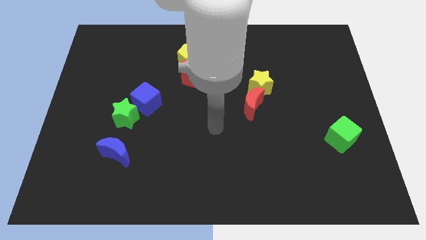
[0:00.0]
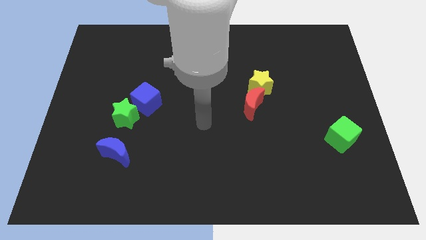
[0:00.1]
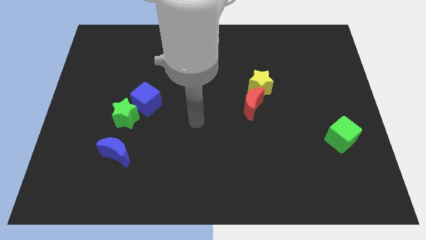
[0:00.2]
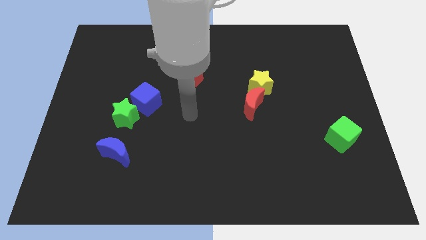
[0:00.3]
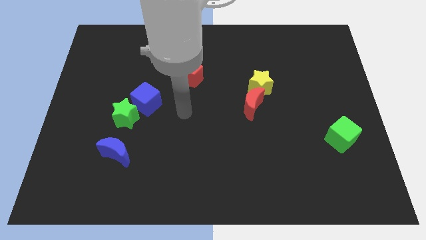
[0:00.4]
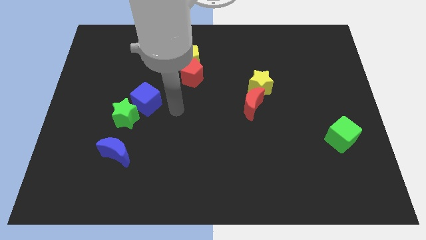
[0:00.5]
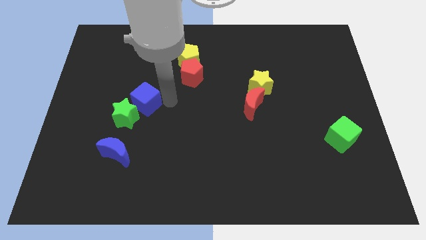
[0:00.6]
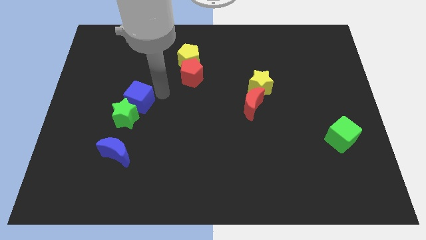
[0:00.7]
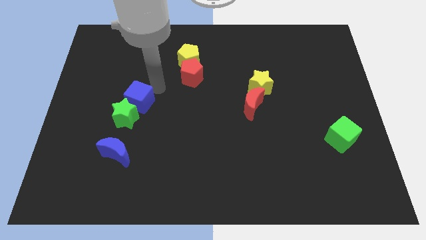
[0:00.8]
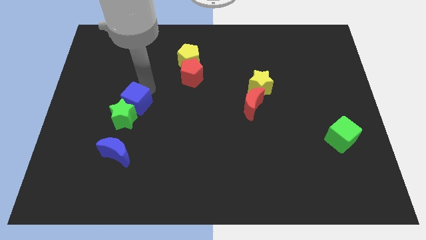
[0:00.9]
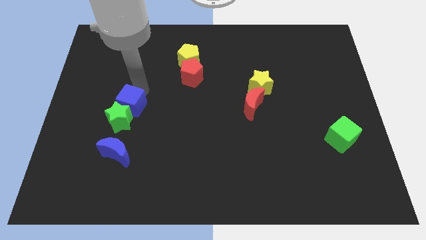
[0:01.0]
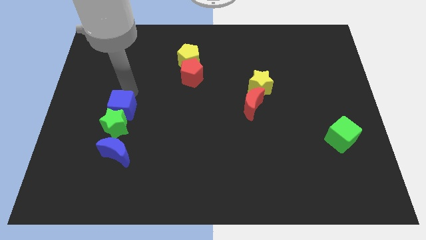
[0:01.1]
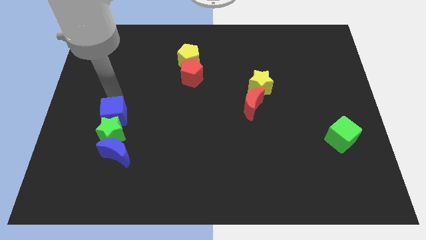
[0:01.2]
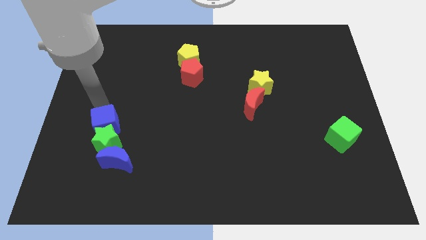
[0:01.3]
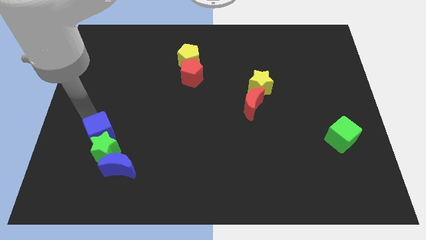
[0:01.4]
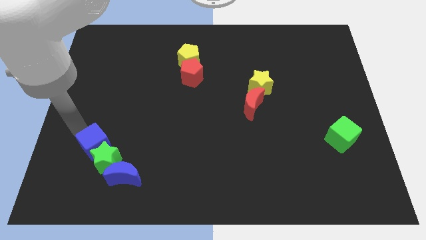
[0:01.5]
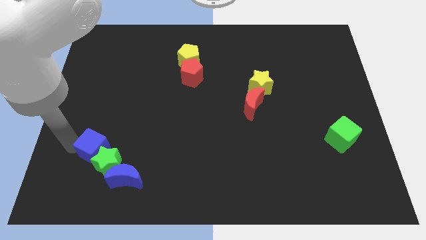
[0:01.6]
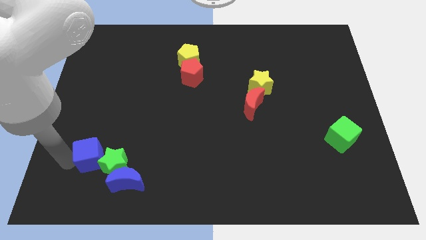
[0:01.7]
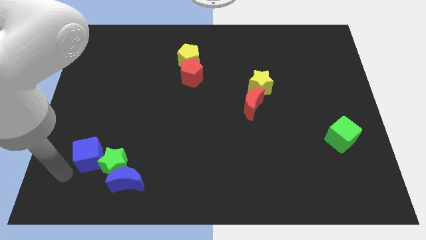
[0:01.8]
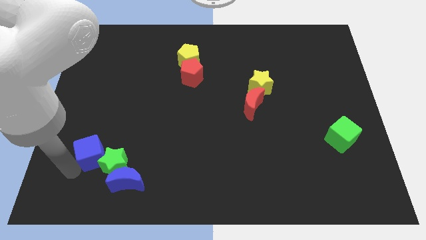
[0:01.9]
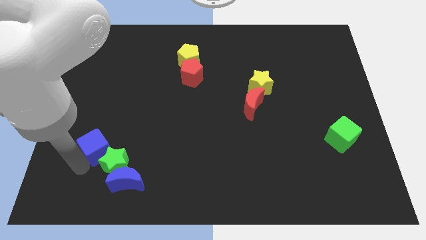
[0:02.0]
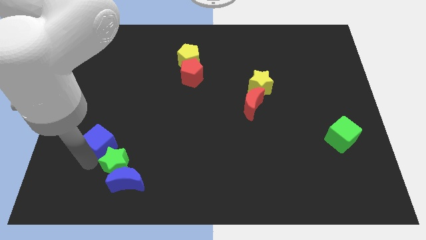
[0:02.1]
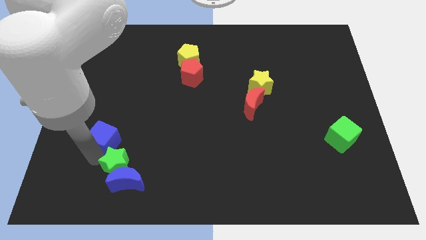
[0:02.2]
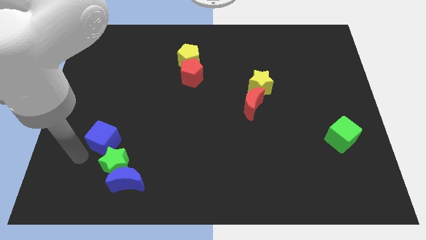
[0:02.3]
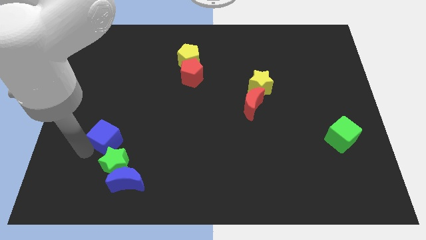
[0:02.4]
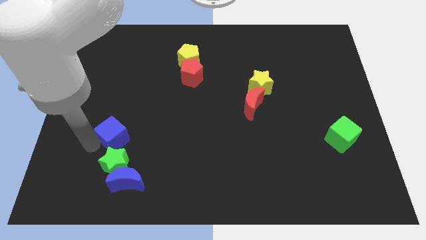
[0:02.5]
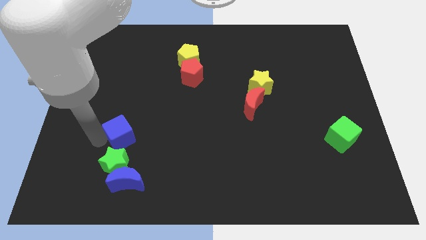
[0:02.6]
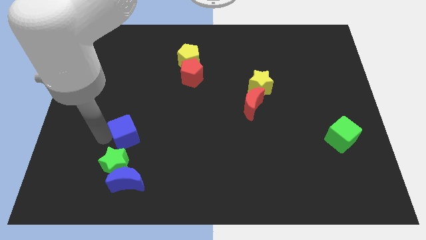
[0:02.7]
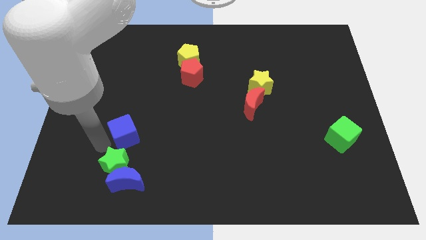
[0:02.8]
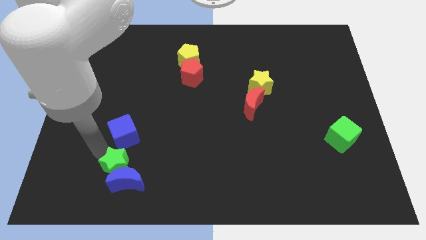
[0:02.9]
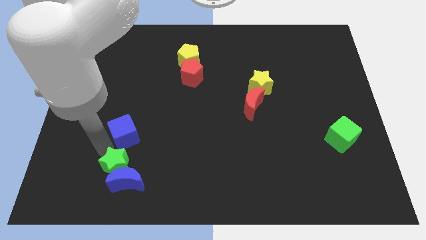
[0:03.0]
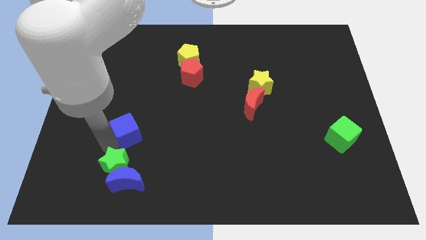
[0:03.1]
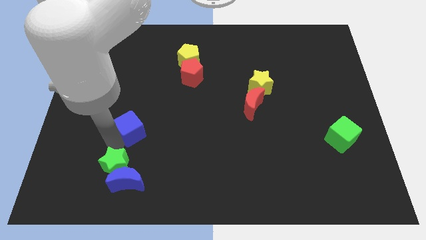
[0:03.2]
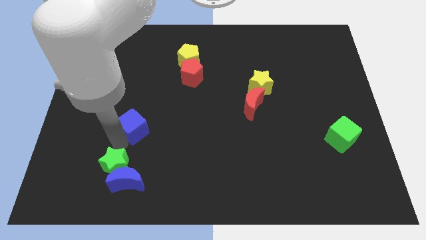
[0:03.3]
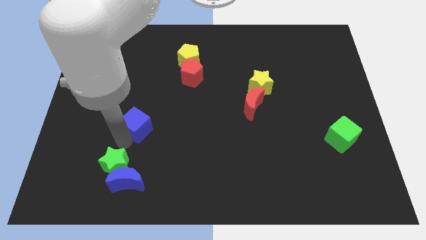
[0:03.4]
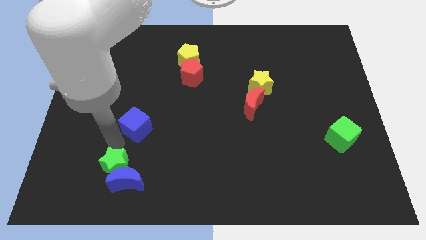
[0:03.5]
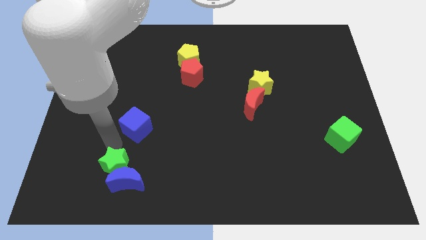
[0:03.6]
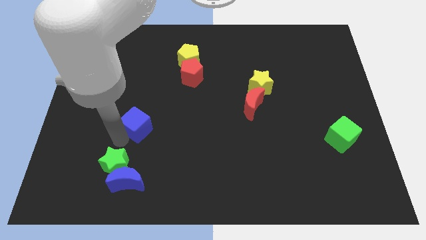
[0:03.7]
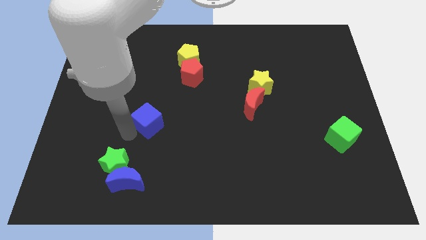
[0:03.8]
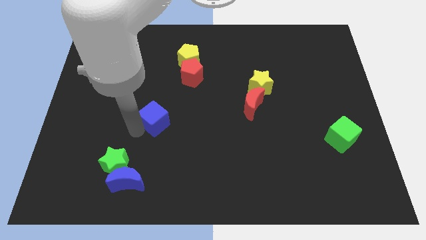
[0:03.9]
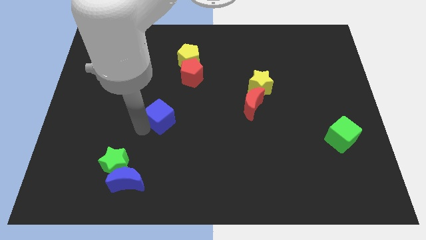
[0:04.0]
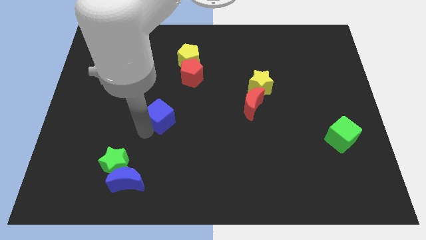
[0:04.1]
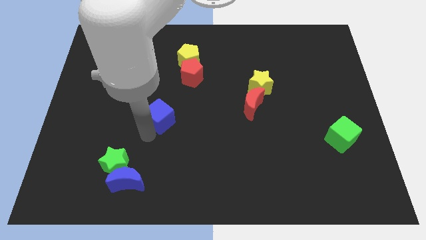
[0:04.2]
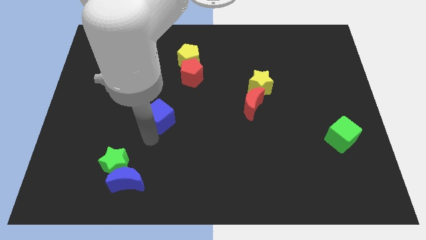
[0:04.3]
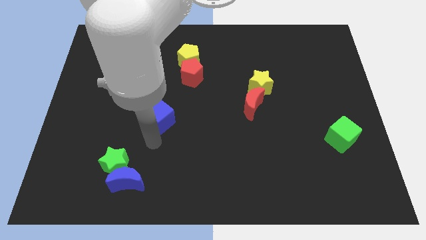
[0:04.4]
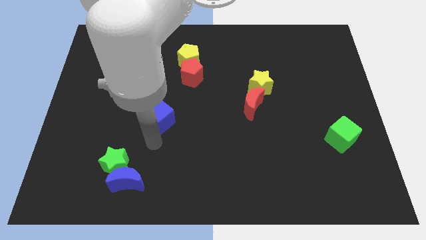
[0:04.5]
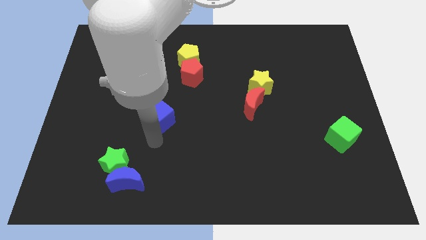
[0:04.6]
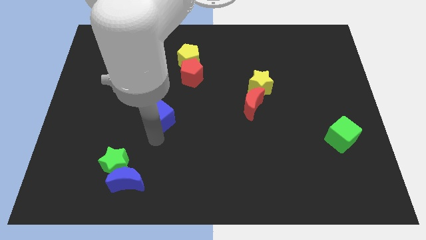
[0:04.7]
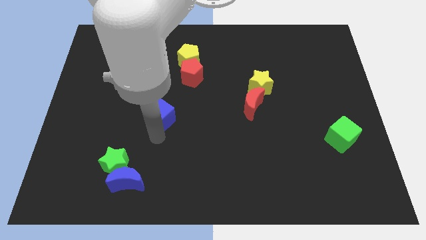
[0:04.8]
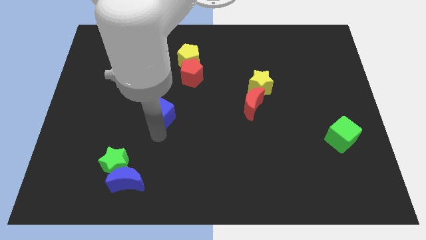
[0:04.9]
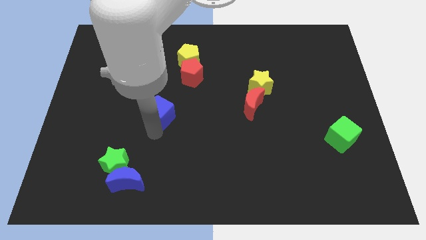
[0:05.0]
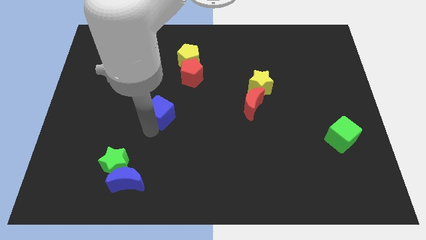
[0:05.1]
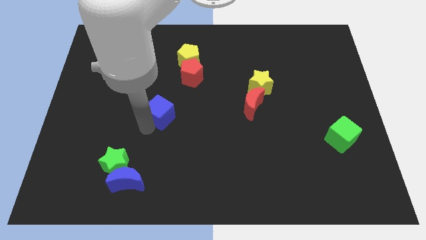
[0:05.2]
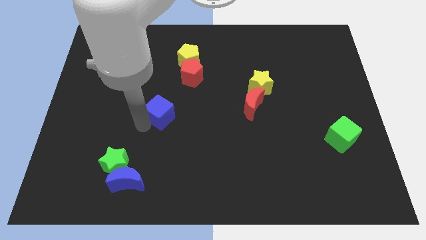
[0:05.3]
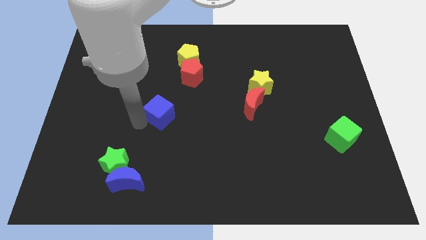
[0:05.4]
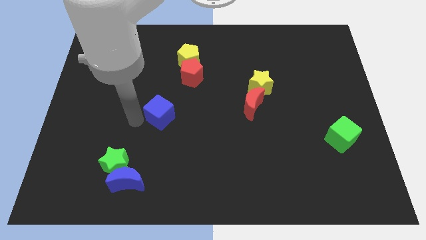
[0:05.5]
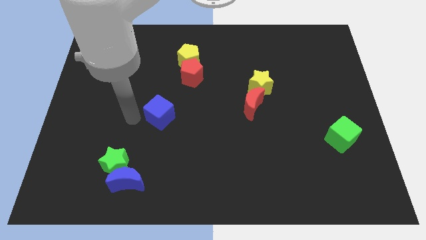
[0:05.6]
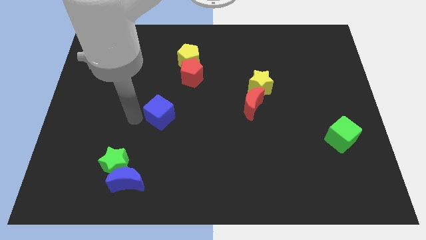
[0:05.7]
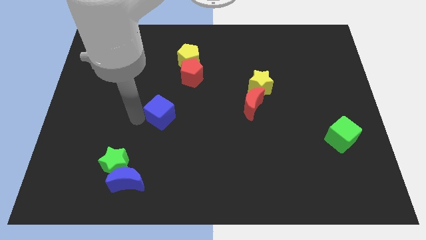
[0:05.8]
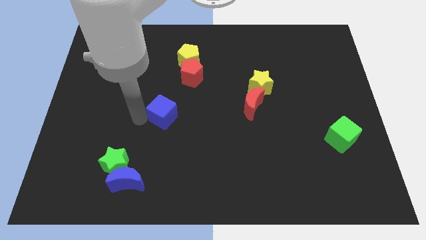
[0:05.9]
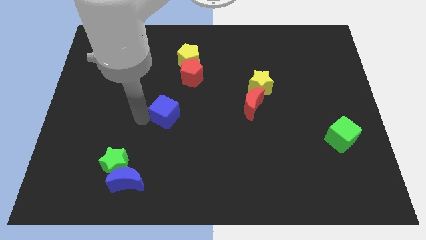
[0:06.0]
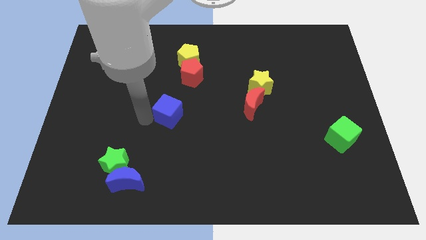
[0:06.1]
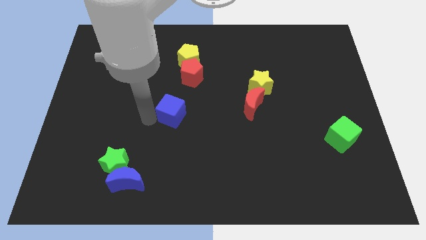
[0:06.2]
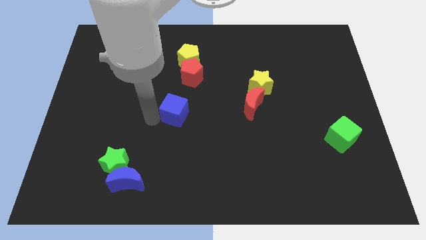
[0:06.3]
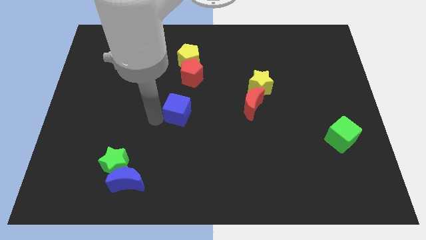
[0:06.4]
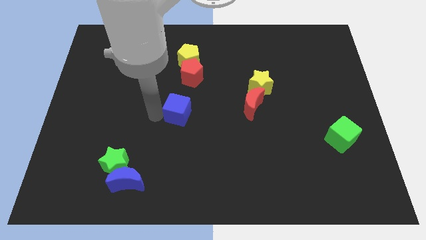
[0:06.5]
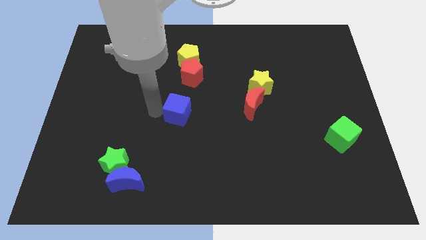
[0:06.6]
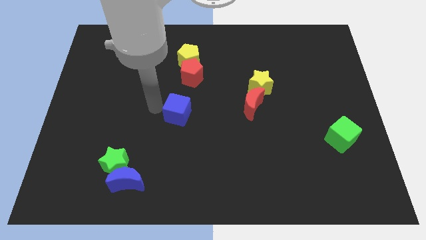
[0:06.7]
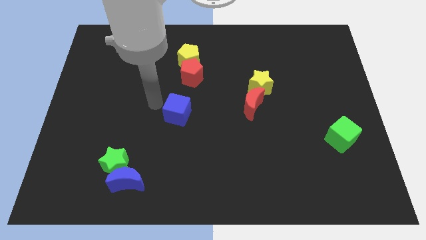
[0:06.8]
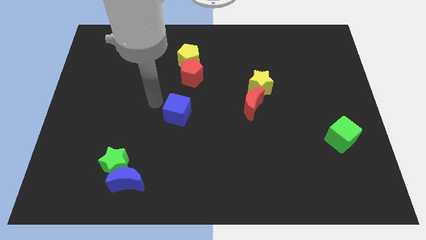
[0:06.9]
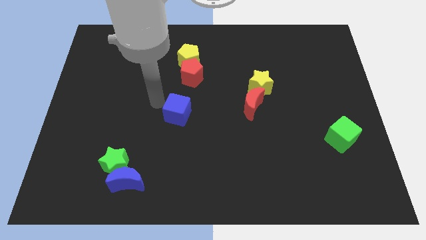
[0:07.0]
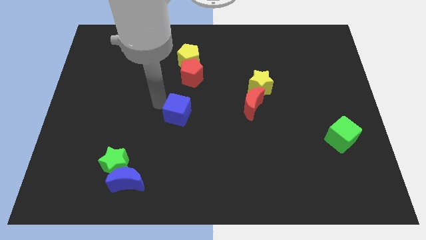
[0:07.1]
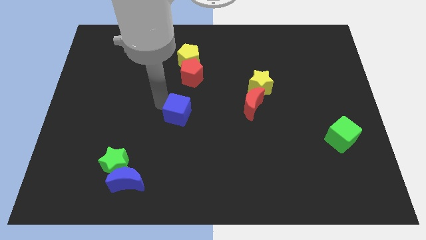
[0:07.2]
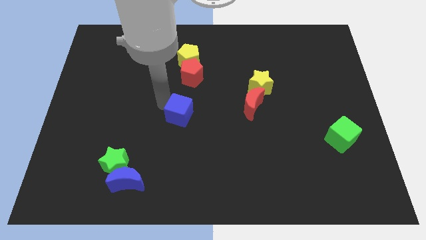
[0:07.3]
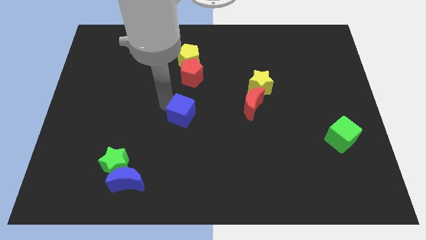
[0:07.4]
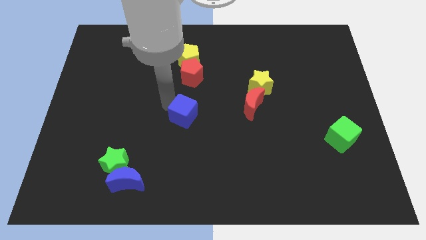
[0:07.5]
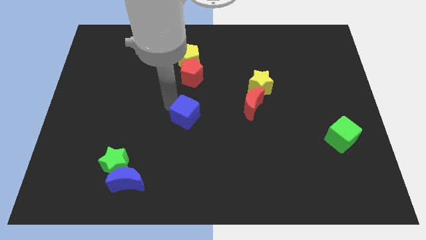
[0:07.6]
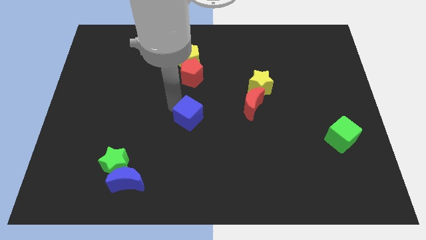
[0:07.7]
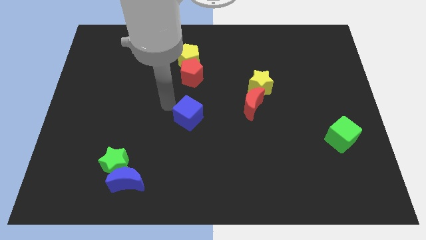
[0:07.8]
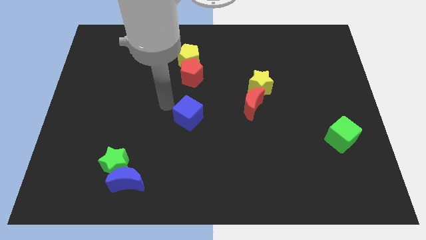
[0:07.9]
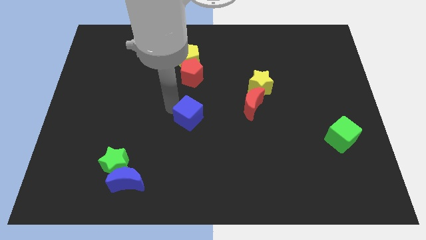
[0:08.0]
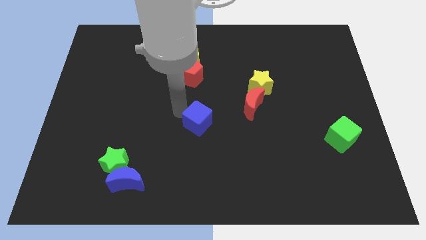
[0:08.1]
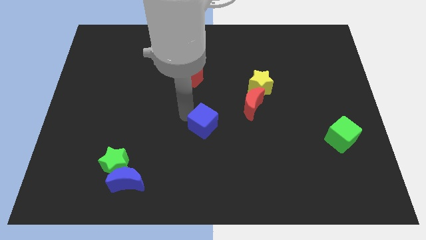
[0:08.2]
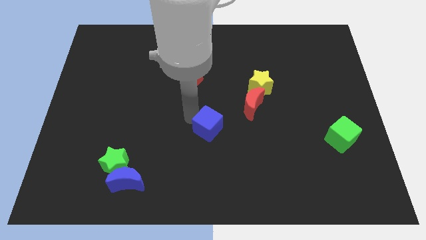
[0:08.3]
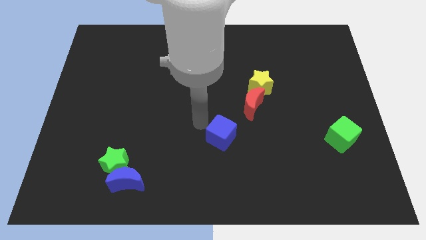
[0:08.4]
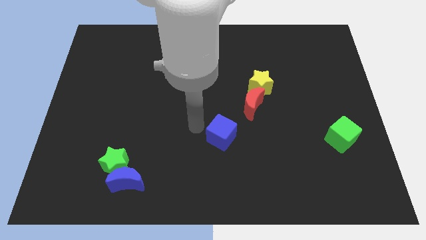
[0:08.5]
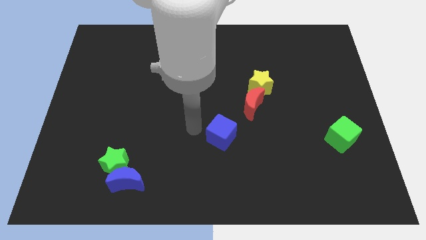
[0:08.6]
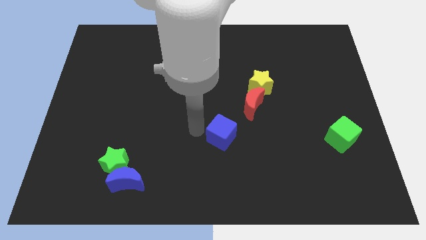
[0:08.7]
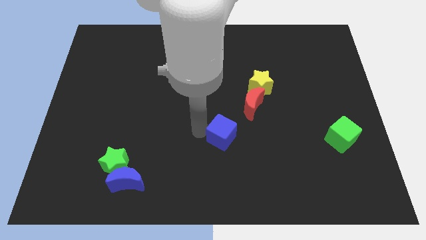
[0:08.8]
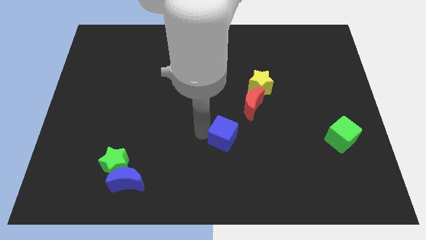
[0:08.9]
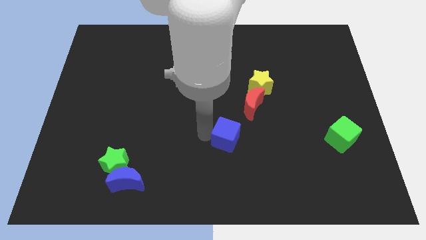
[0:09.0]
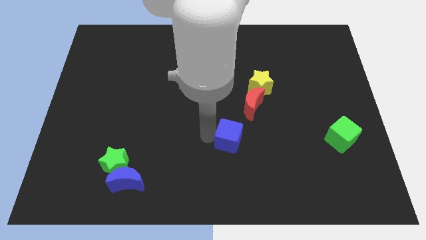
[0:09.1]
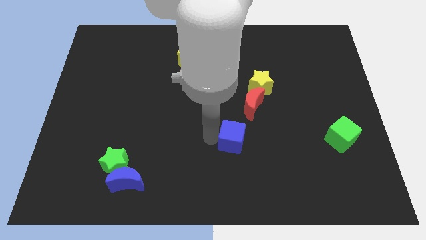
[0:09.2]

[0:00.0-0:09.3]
slide the blue cube to the bottom side of the red moon
